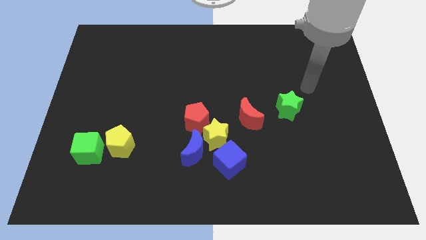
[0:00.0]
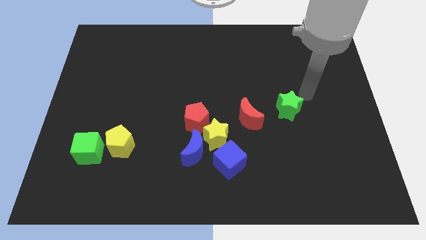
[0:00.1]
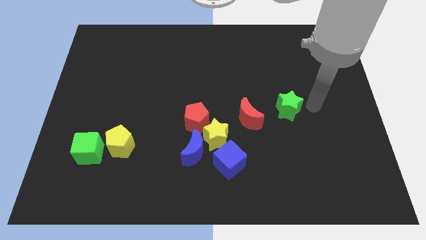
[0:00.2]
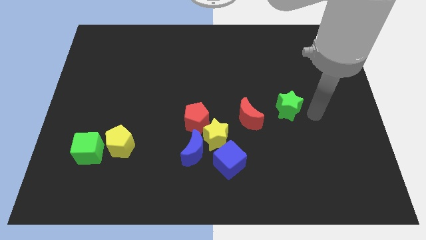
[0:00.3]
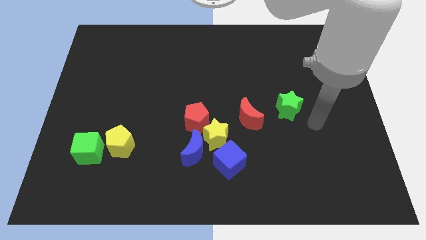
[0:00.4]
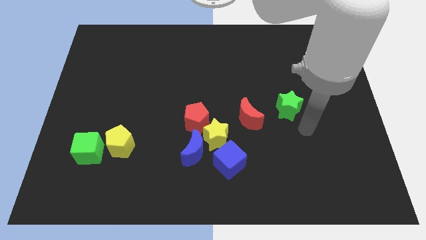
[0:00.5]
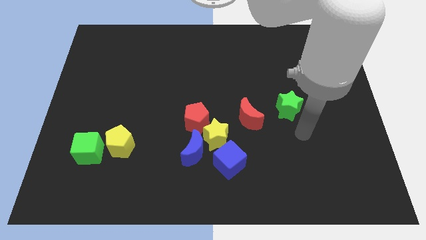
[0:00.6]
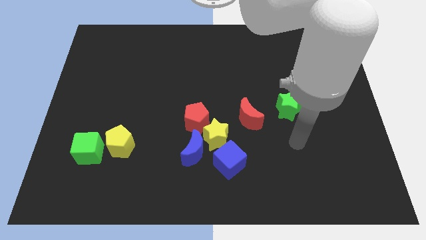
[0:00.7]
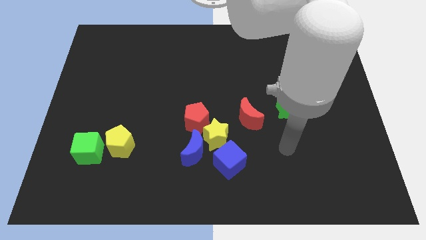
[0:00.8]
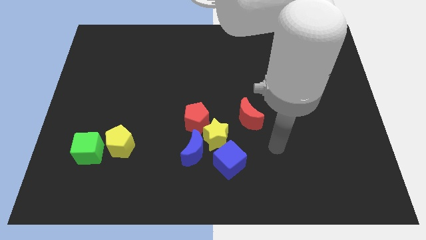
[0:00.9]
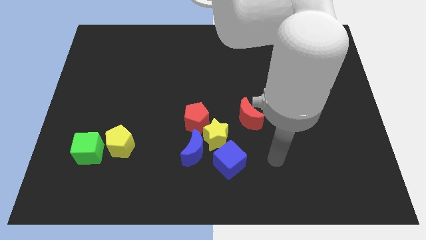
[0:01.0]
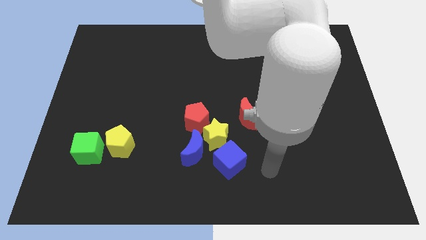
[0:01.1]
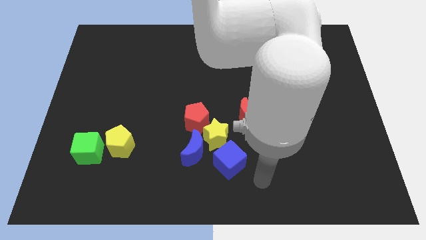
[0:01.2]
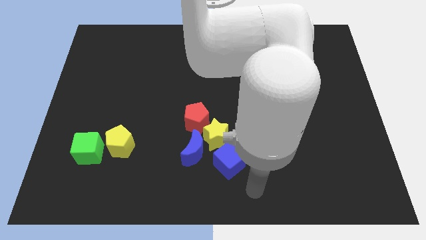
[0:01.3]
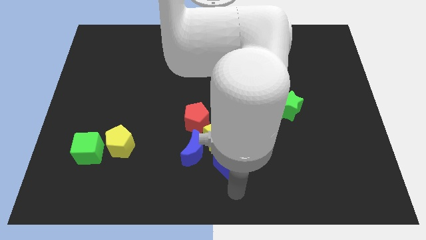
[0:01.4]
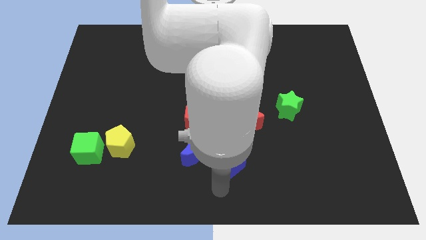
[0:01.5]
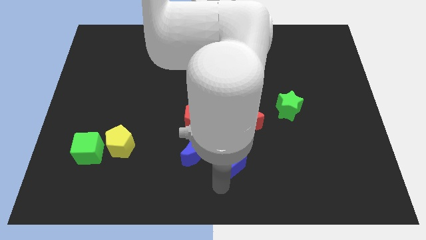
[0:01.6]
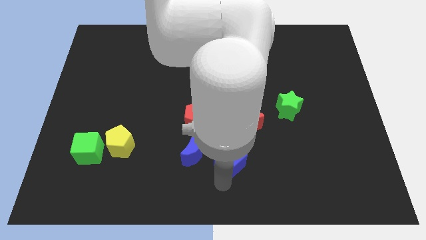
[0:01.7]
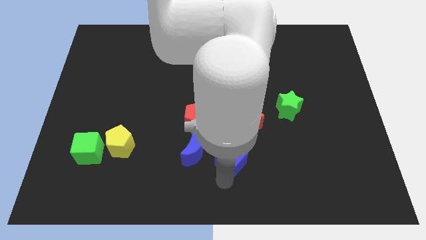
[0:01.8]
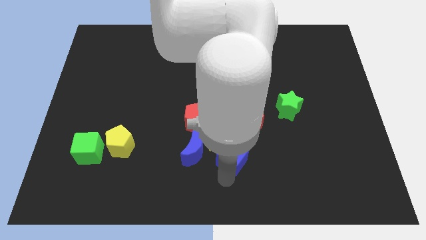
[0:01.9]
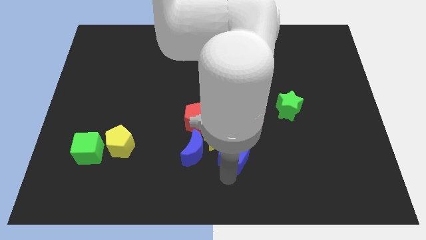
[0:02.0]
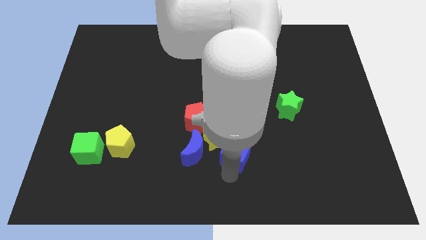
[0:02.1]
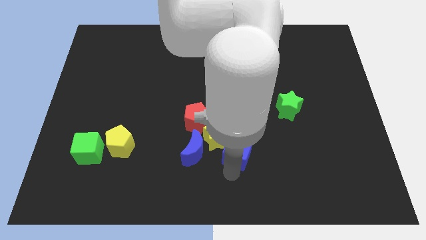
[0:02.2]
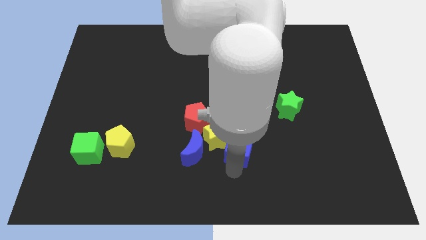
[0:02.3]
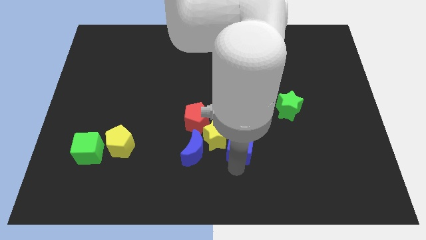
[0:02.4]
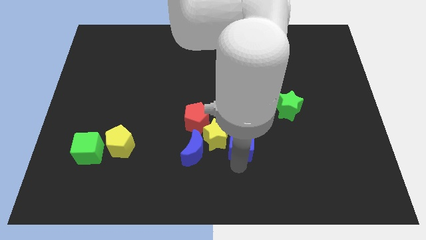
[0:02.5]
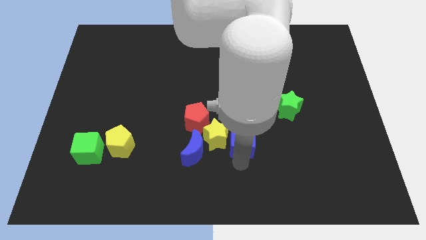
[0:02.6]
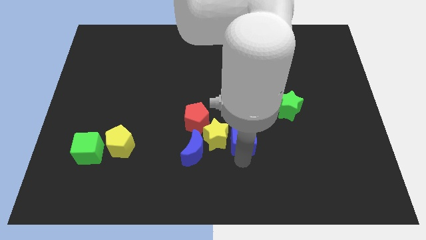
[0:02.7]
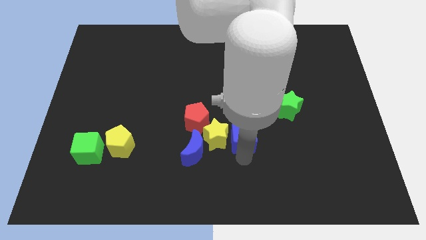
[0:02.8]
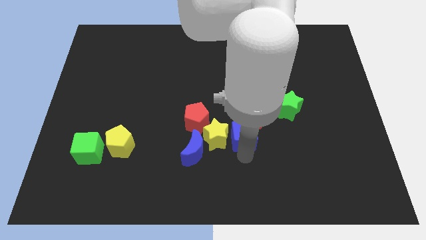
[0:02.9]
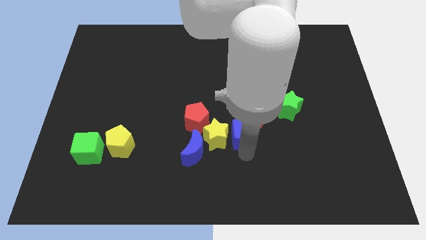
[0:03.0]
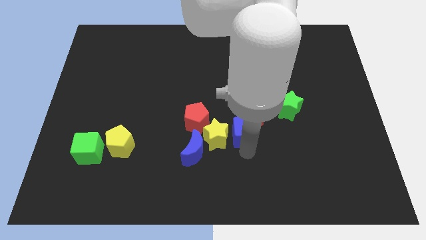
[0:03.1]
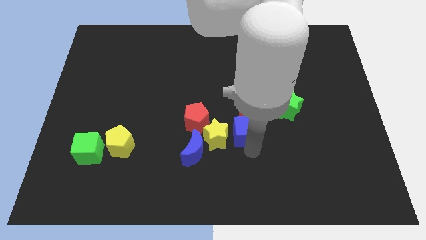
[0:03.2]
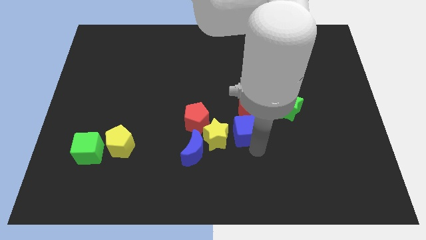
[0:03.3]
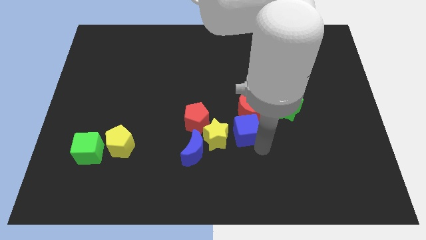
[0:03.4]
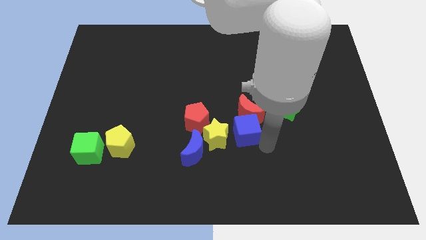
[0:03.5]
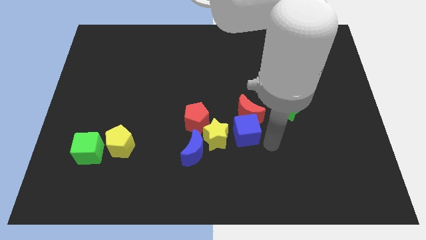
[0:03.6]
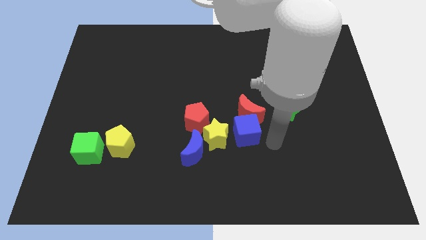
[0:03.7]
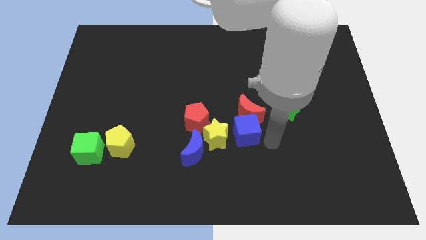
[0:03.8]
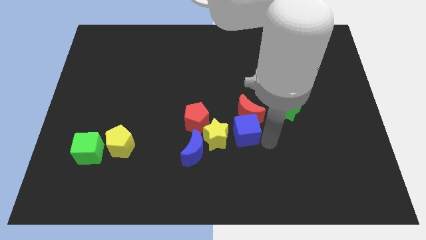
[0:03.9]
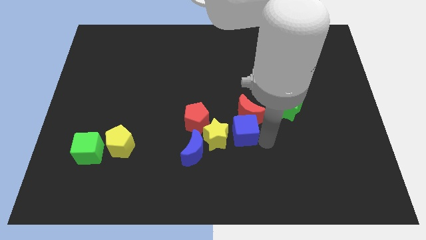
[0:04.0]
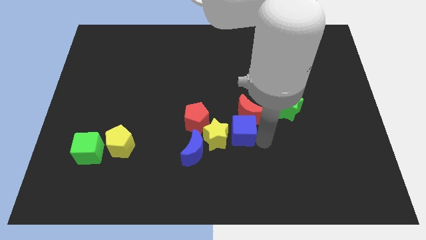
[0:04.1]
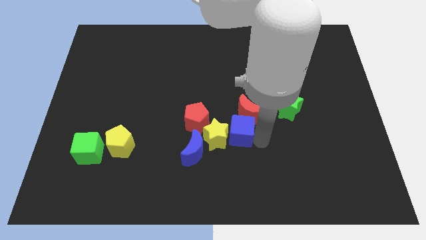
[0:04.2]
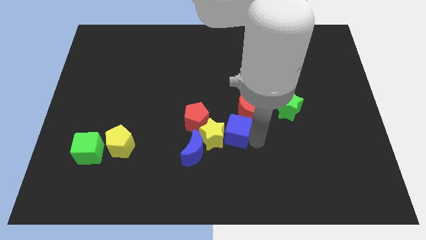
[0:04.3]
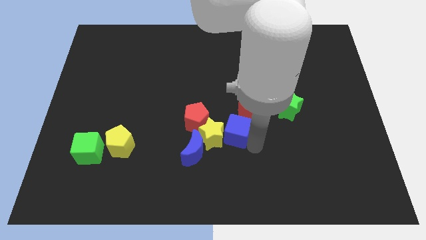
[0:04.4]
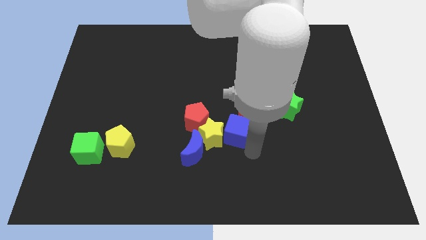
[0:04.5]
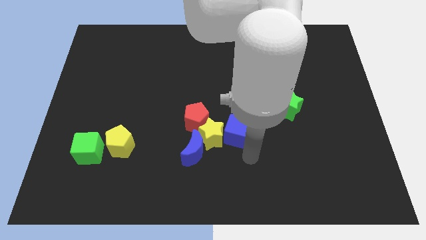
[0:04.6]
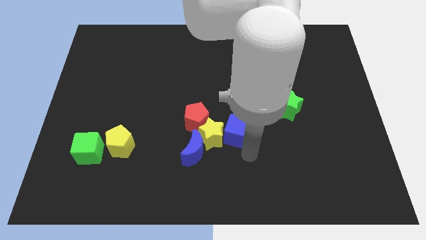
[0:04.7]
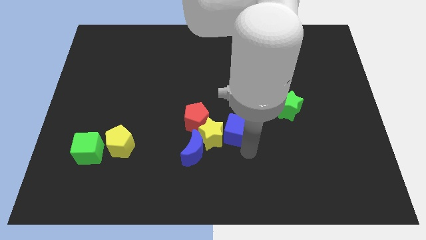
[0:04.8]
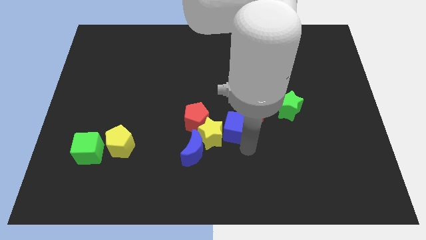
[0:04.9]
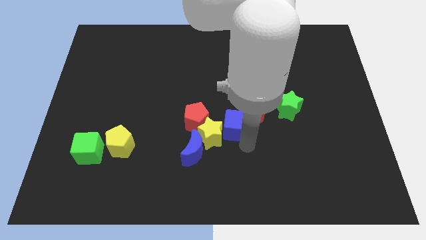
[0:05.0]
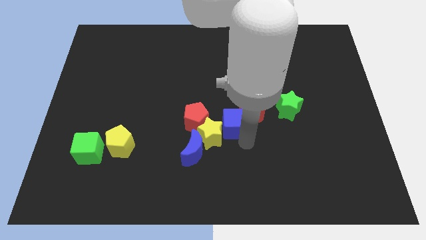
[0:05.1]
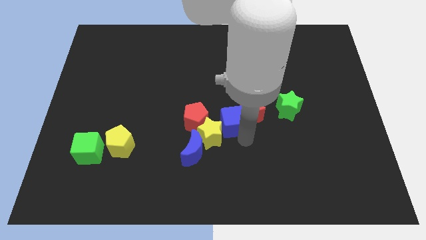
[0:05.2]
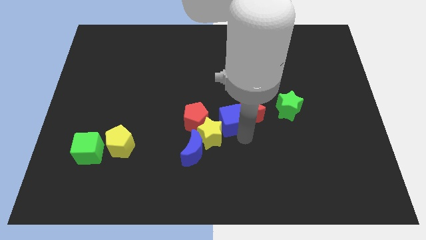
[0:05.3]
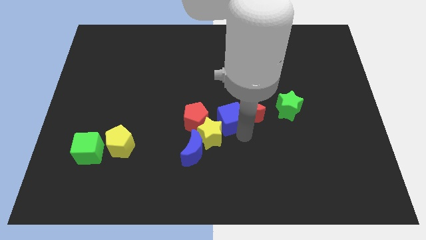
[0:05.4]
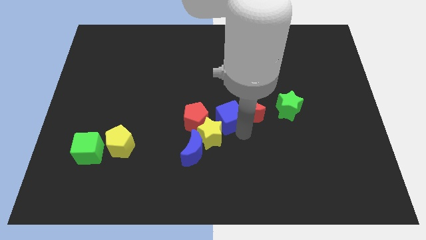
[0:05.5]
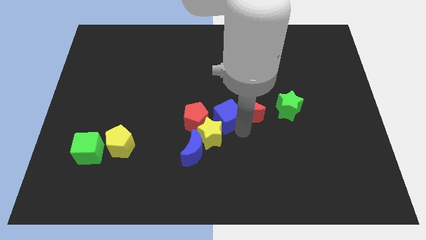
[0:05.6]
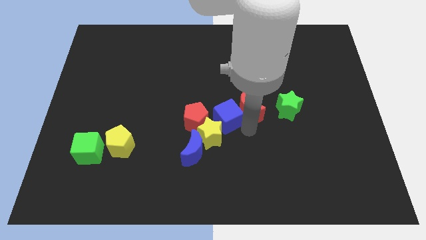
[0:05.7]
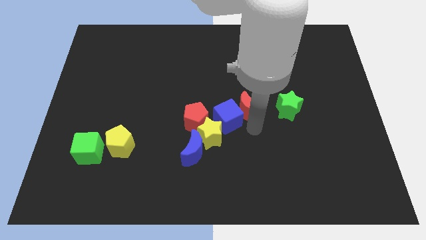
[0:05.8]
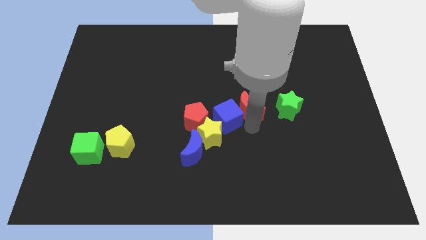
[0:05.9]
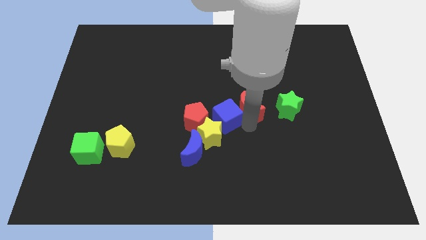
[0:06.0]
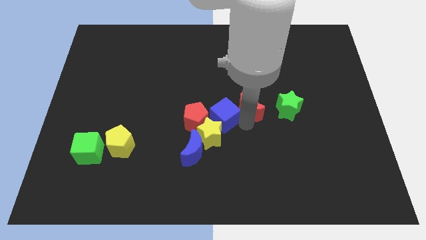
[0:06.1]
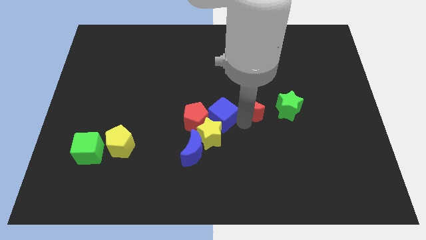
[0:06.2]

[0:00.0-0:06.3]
push the blue cube next to the red pentagon
